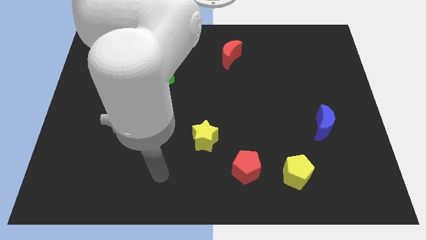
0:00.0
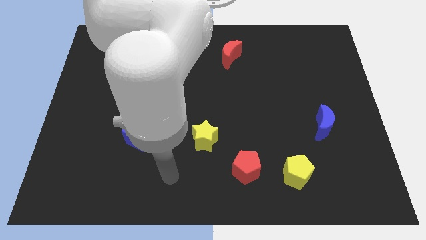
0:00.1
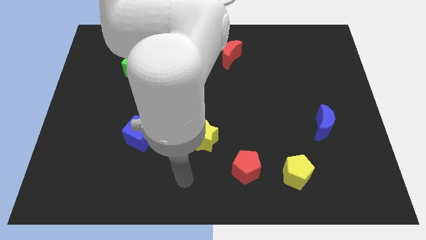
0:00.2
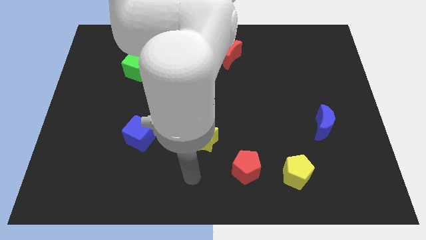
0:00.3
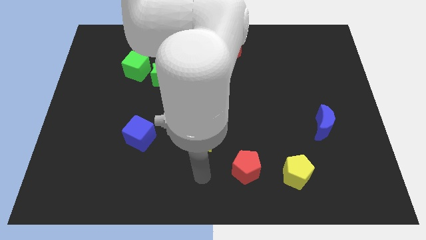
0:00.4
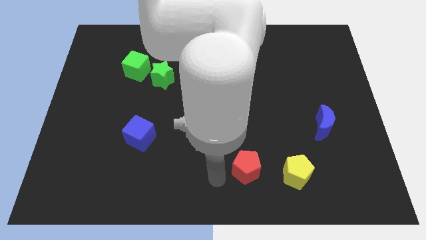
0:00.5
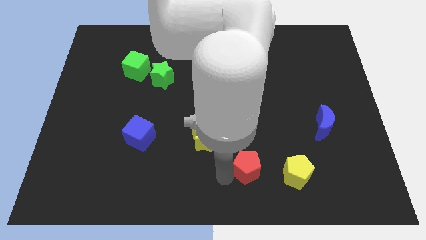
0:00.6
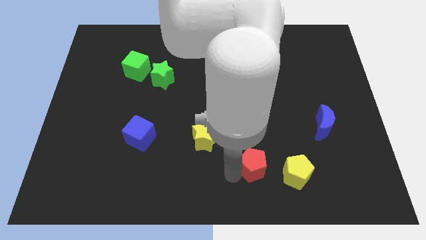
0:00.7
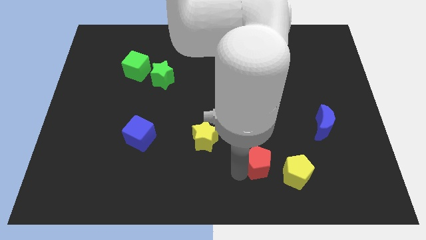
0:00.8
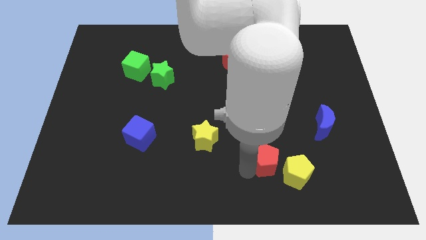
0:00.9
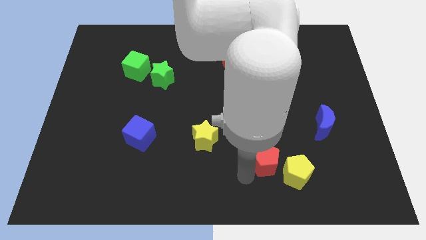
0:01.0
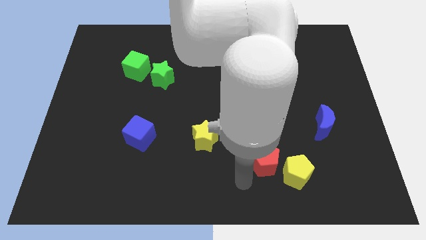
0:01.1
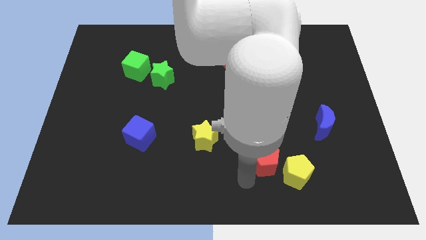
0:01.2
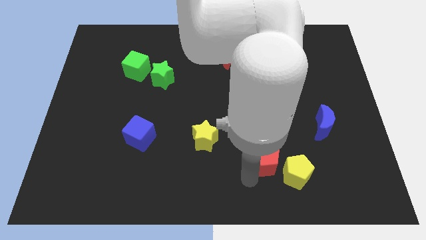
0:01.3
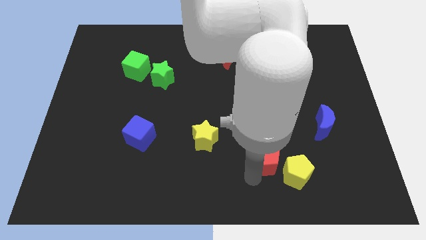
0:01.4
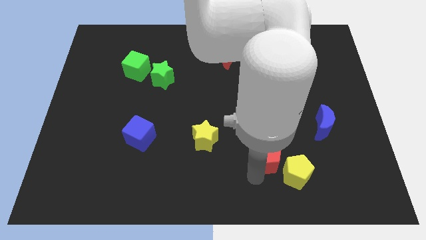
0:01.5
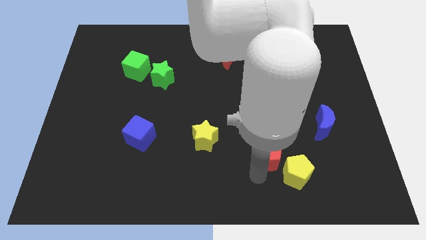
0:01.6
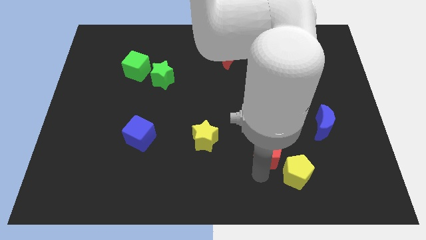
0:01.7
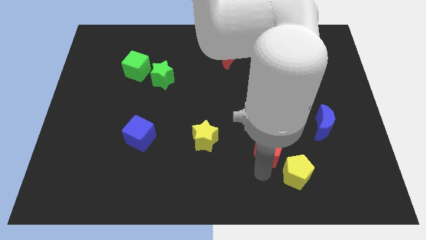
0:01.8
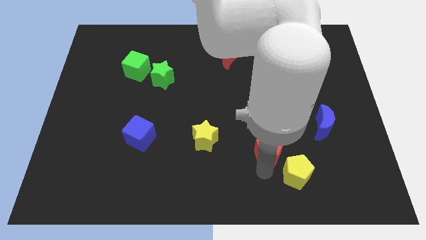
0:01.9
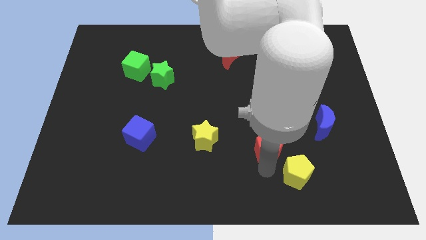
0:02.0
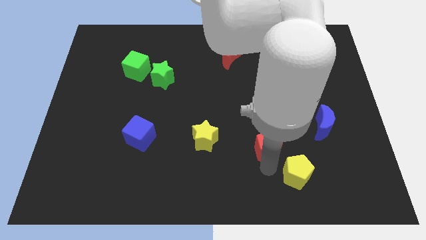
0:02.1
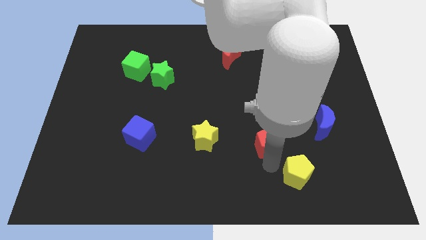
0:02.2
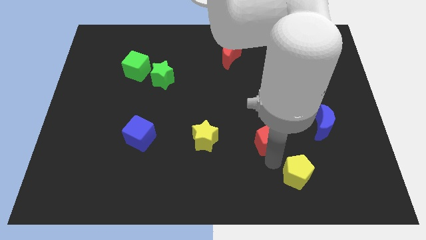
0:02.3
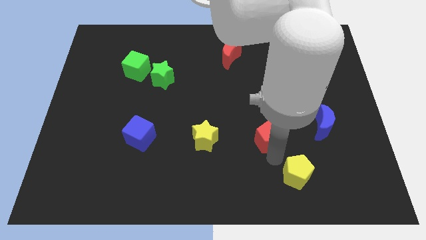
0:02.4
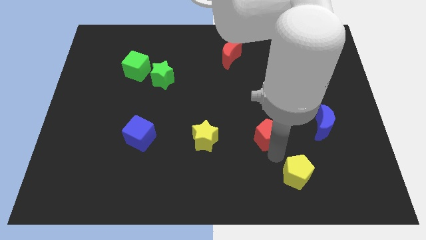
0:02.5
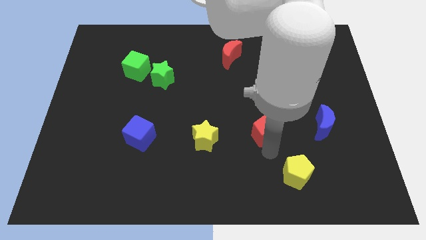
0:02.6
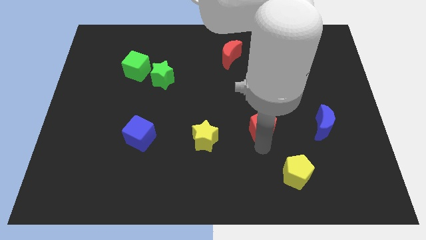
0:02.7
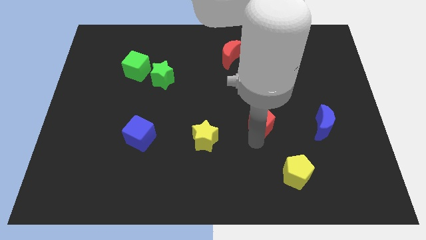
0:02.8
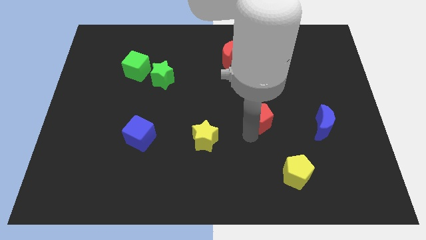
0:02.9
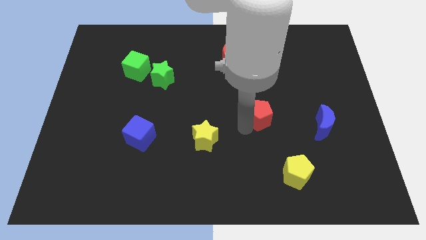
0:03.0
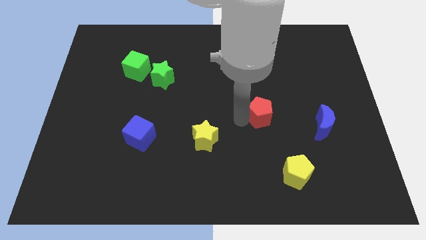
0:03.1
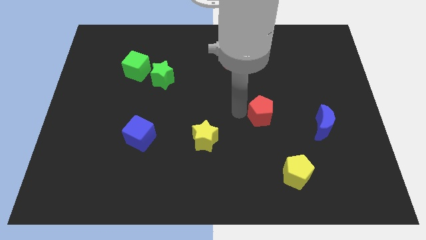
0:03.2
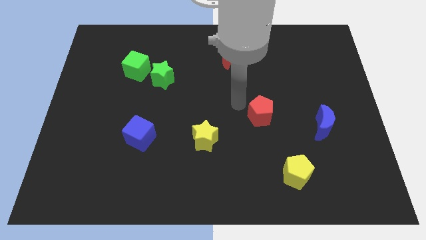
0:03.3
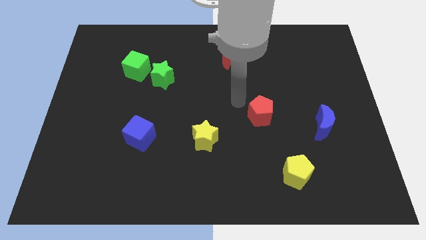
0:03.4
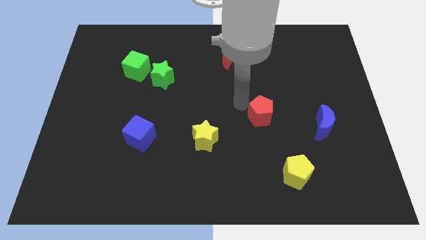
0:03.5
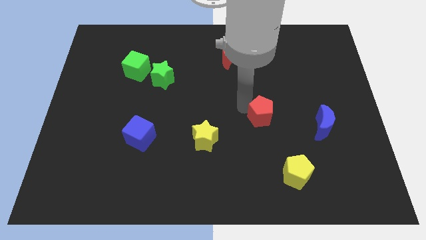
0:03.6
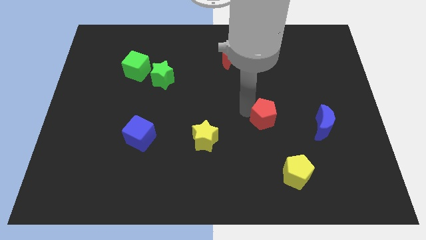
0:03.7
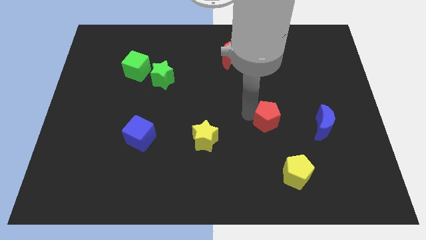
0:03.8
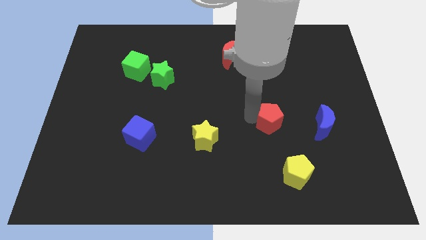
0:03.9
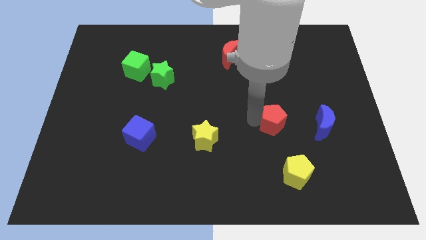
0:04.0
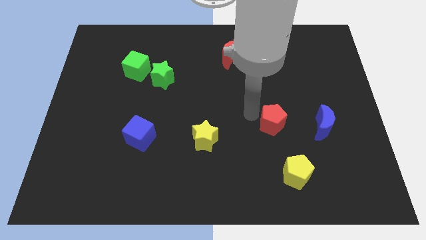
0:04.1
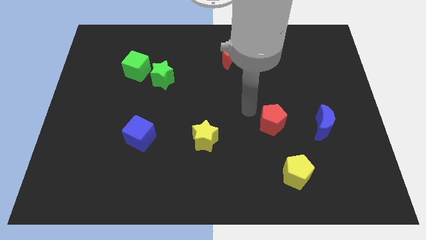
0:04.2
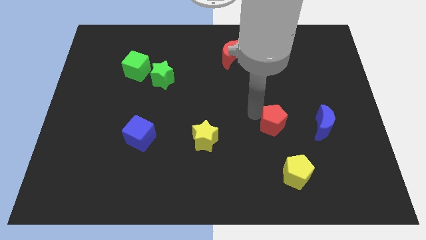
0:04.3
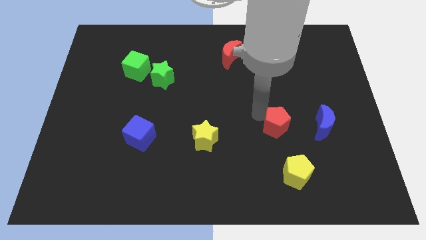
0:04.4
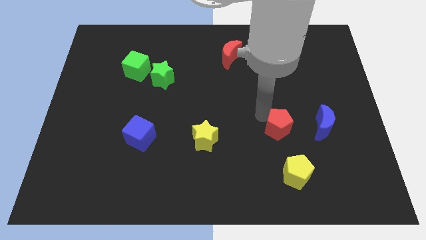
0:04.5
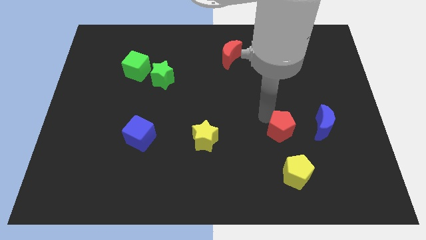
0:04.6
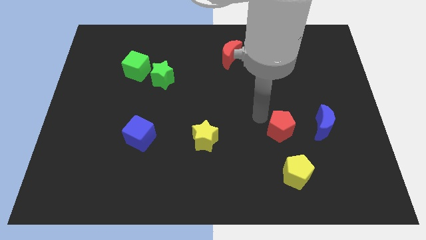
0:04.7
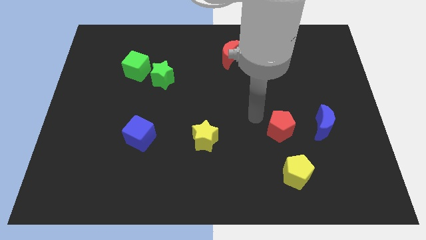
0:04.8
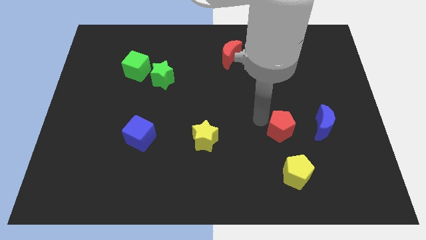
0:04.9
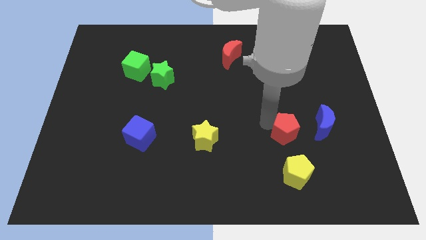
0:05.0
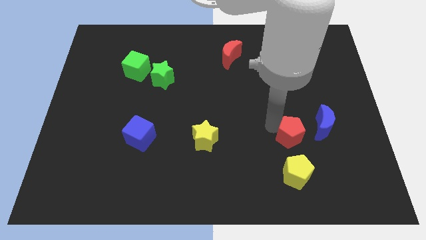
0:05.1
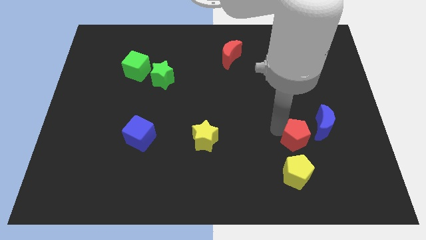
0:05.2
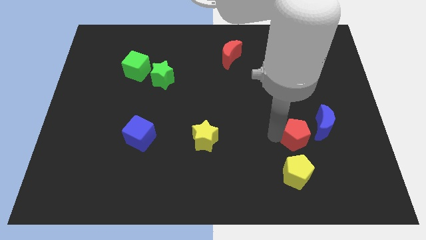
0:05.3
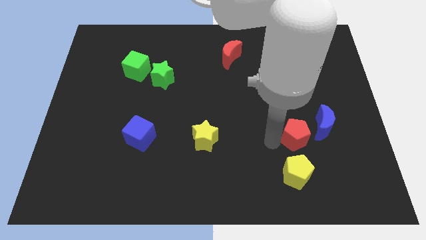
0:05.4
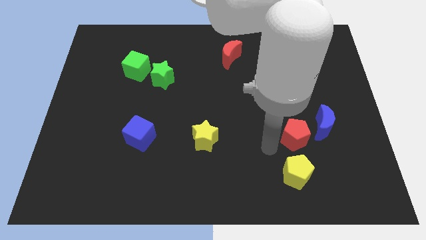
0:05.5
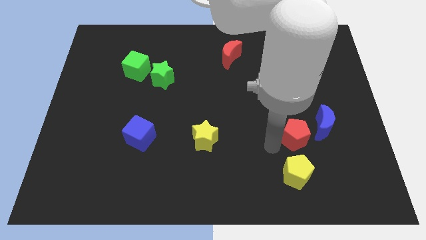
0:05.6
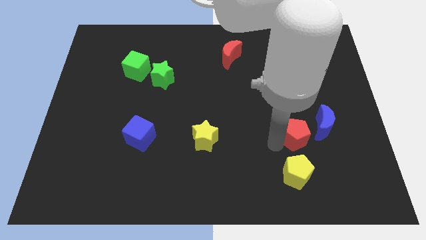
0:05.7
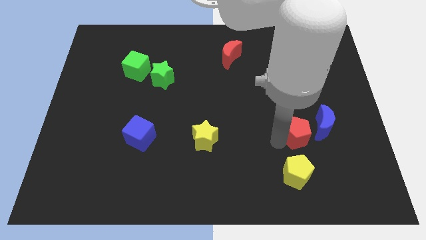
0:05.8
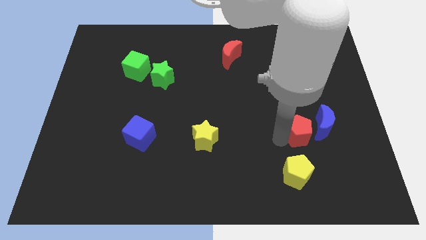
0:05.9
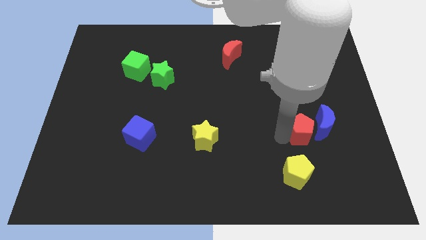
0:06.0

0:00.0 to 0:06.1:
slide the red pentagon close to the blue moon

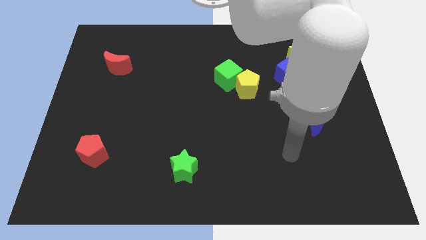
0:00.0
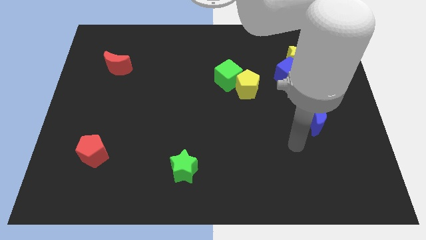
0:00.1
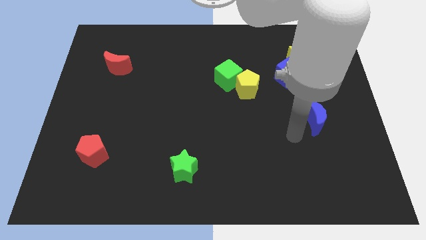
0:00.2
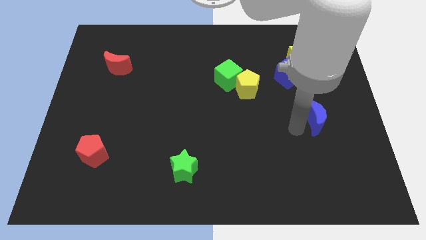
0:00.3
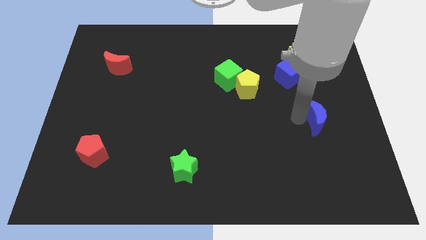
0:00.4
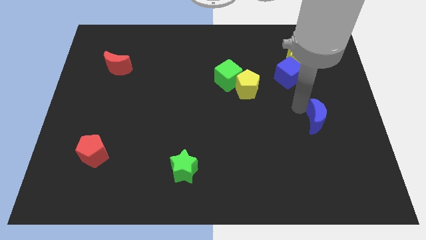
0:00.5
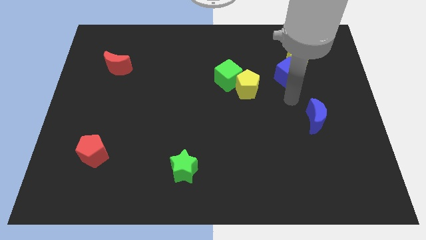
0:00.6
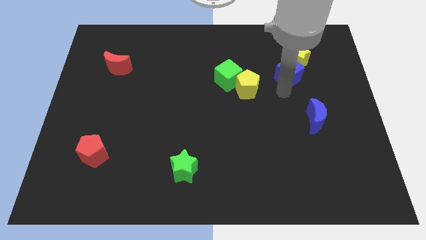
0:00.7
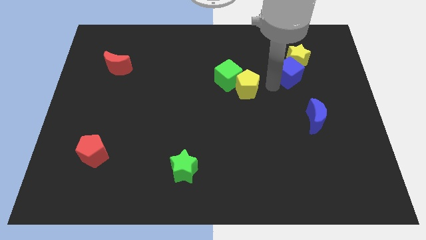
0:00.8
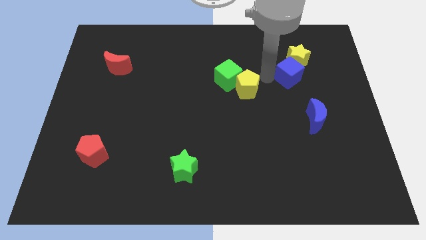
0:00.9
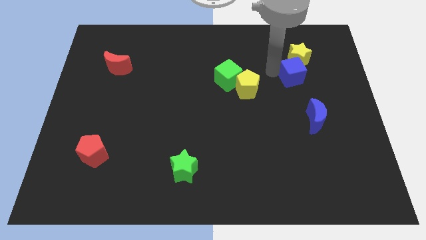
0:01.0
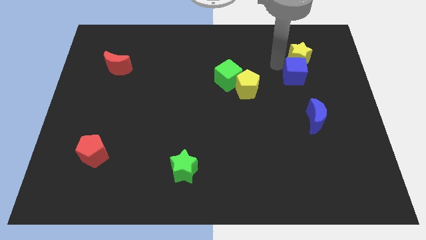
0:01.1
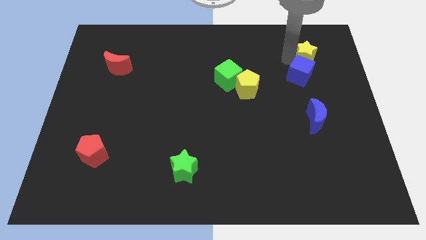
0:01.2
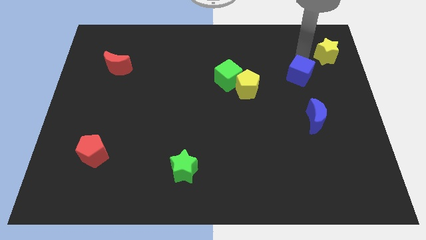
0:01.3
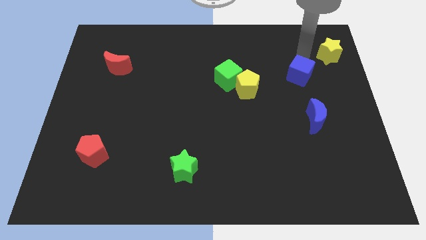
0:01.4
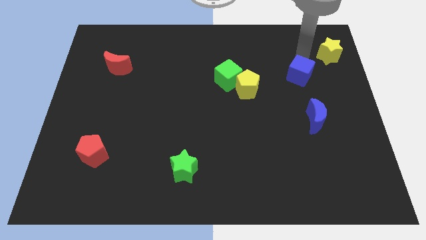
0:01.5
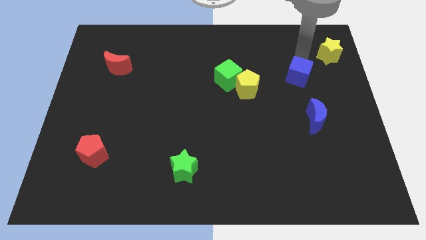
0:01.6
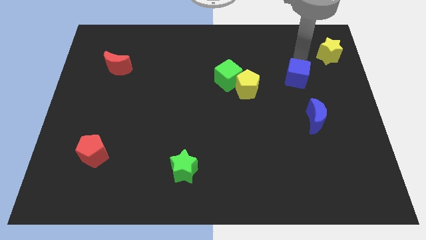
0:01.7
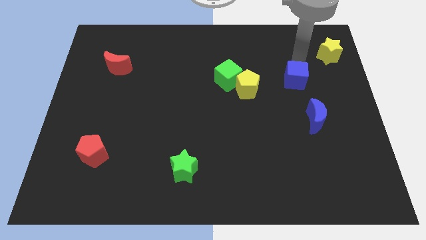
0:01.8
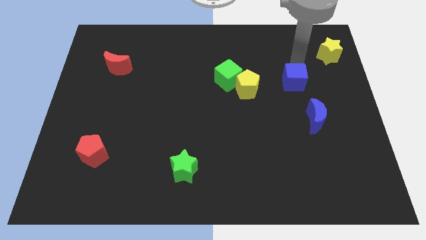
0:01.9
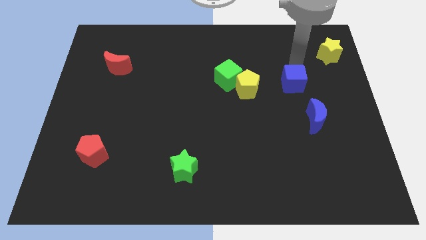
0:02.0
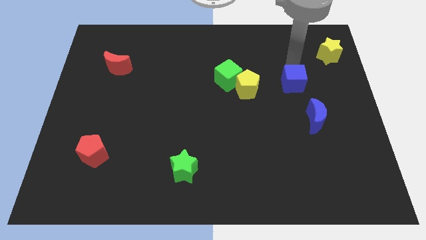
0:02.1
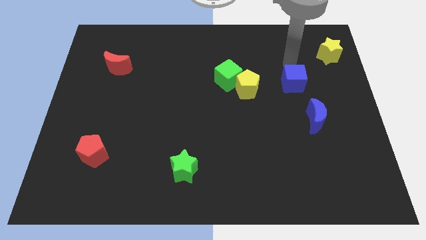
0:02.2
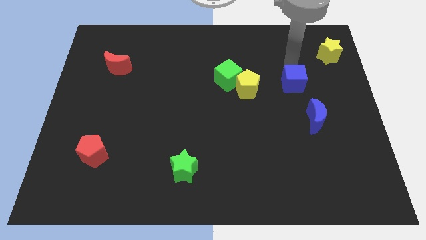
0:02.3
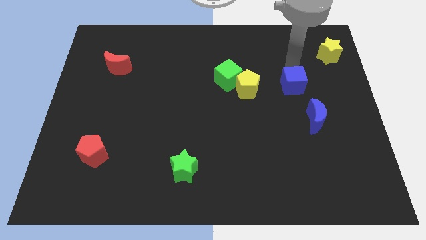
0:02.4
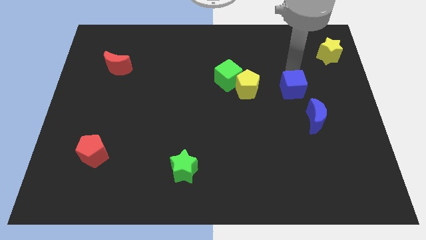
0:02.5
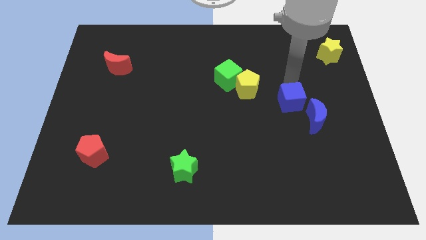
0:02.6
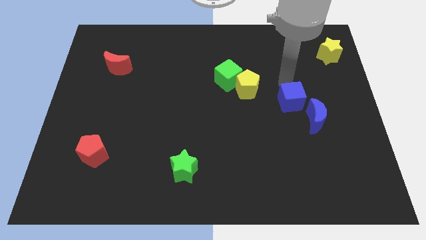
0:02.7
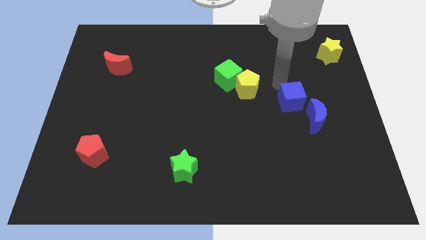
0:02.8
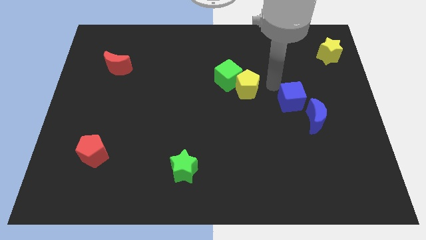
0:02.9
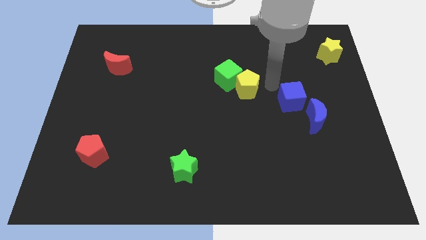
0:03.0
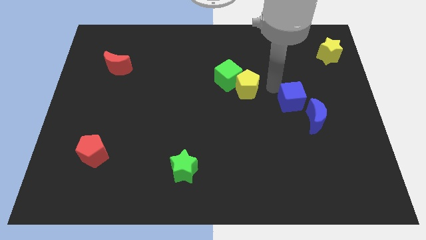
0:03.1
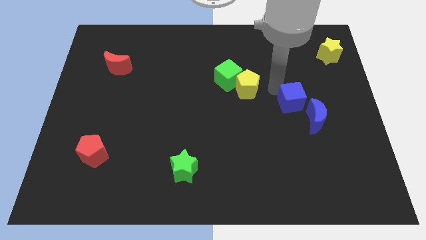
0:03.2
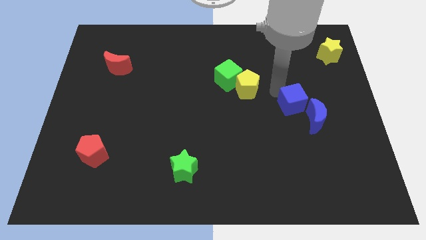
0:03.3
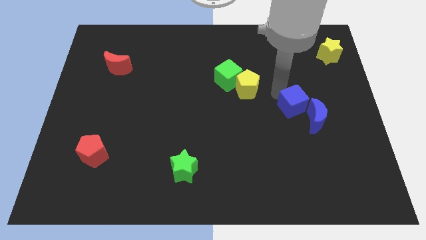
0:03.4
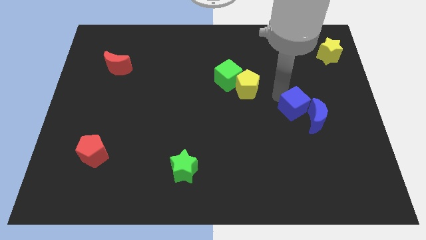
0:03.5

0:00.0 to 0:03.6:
move the blue cube to the blue moon
